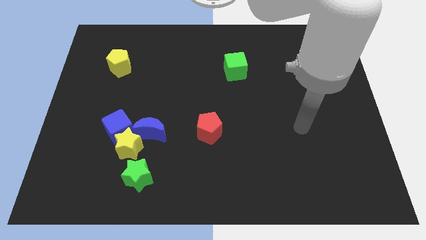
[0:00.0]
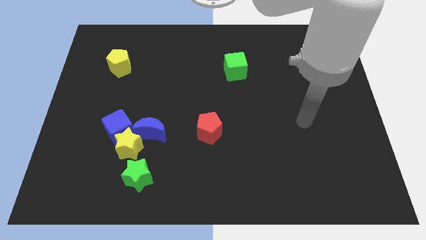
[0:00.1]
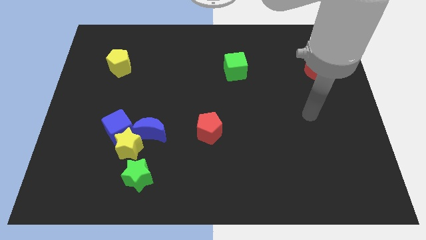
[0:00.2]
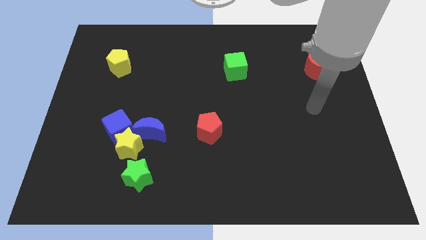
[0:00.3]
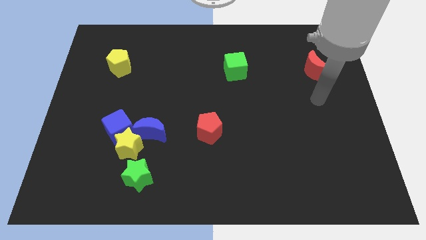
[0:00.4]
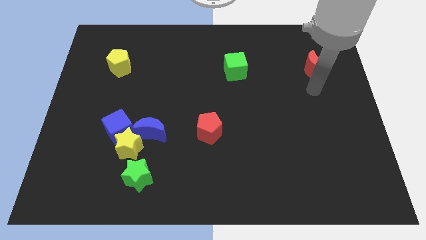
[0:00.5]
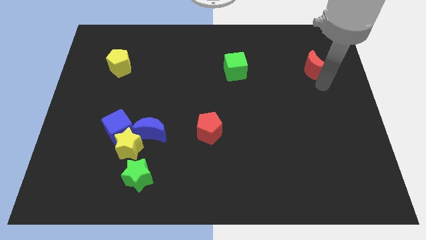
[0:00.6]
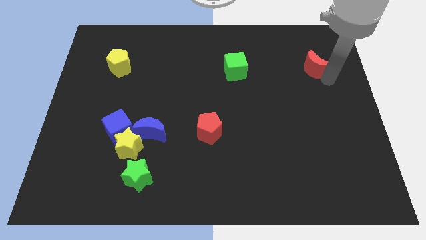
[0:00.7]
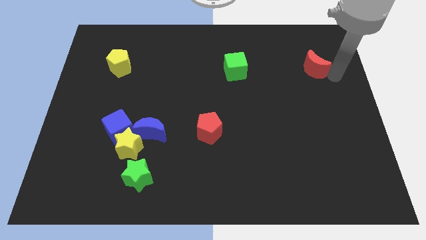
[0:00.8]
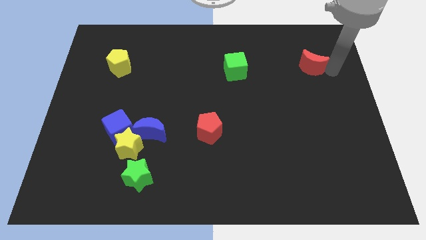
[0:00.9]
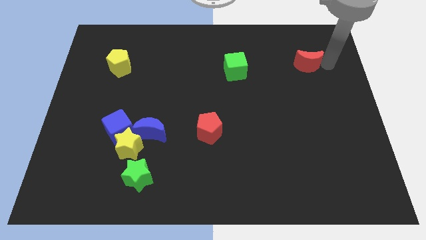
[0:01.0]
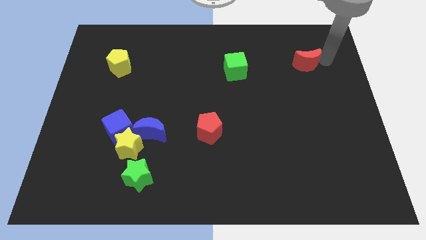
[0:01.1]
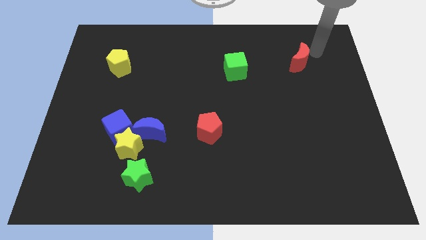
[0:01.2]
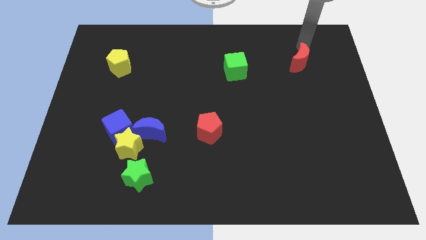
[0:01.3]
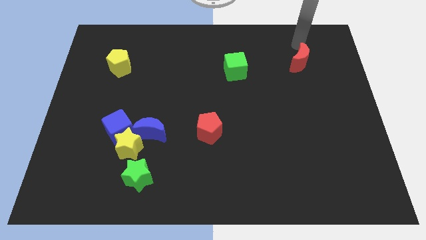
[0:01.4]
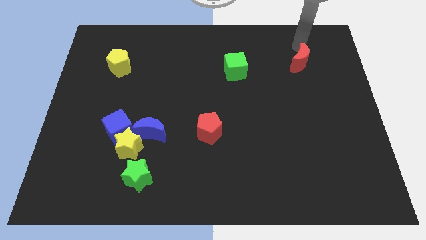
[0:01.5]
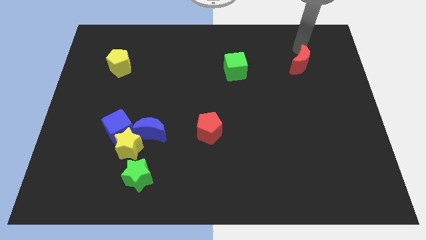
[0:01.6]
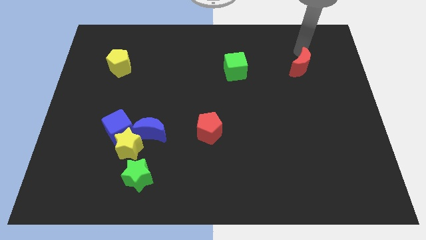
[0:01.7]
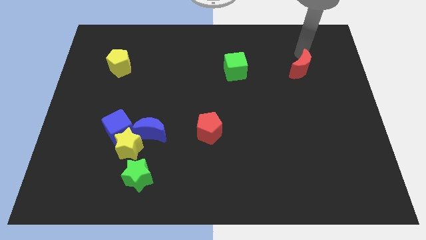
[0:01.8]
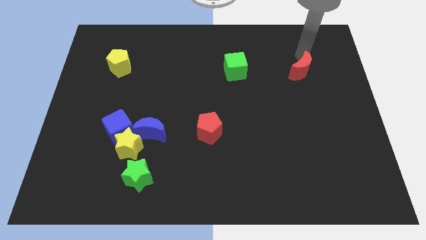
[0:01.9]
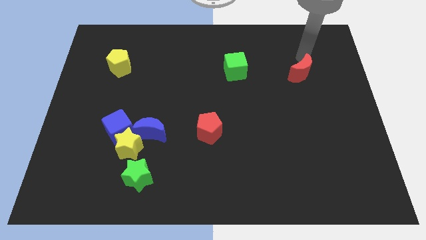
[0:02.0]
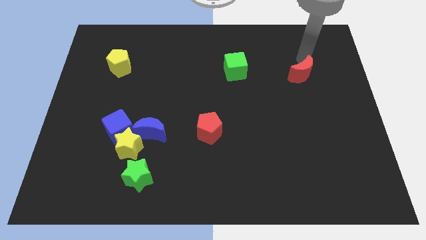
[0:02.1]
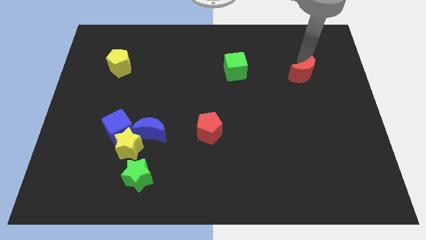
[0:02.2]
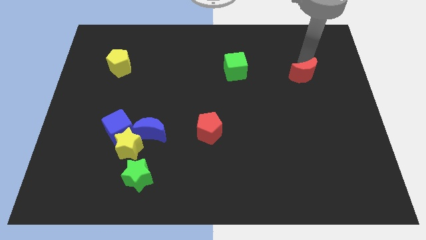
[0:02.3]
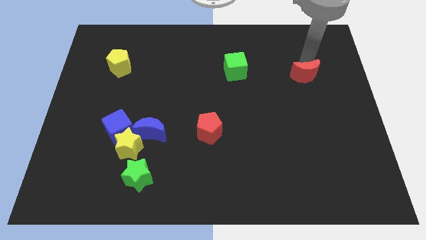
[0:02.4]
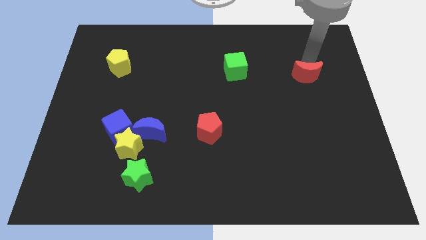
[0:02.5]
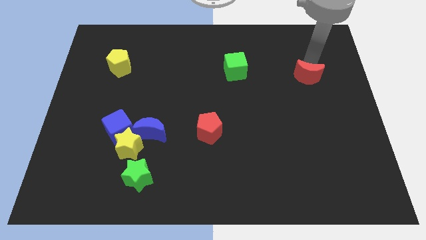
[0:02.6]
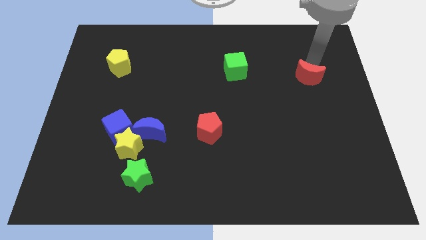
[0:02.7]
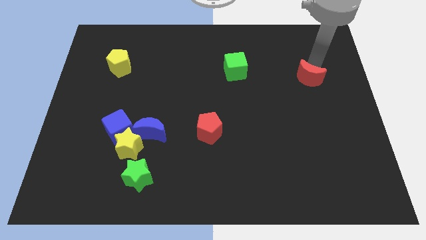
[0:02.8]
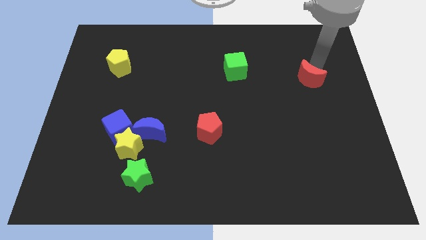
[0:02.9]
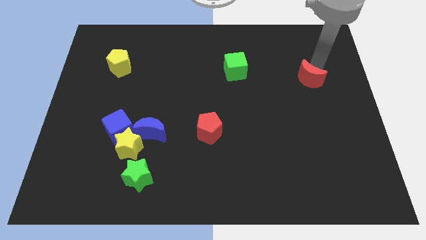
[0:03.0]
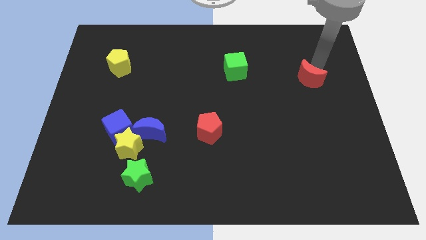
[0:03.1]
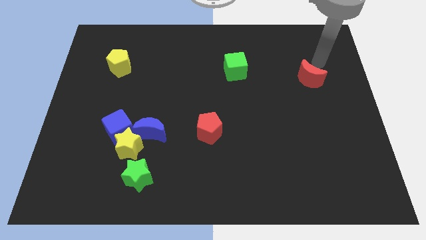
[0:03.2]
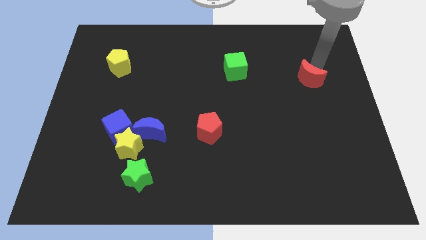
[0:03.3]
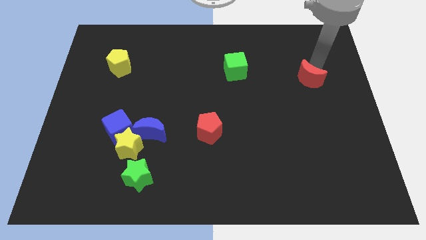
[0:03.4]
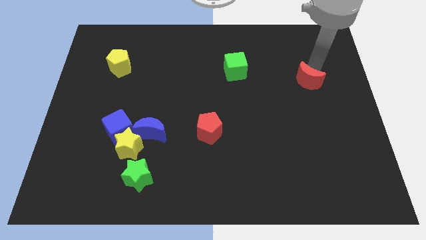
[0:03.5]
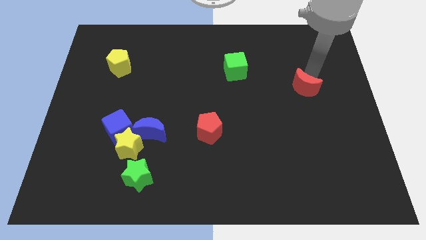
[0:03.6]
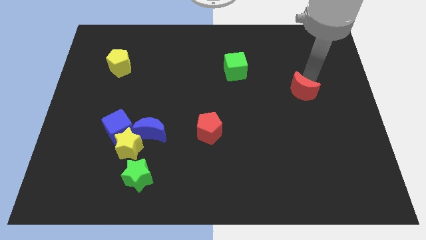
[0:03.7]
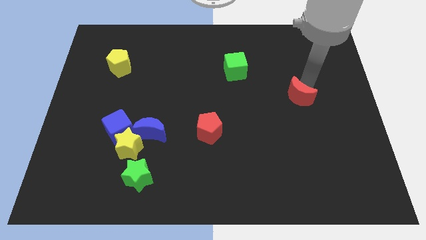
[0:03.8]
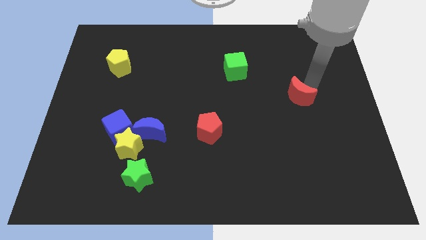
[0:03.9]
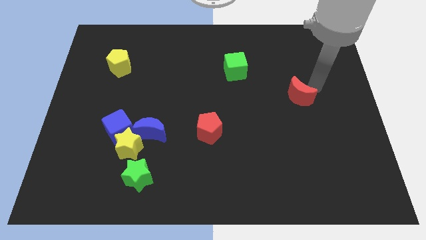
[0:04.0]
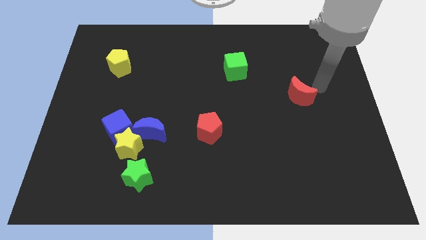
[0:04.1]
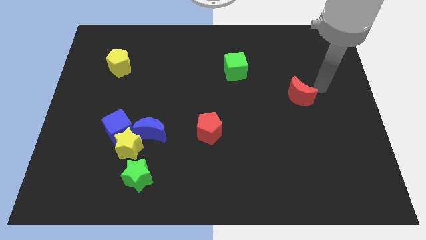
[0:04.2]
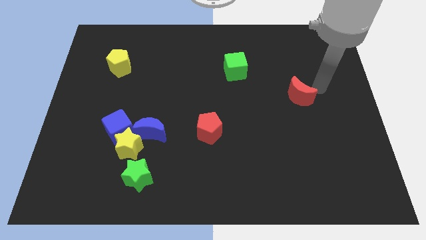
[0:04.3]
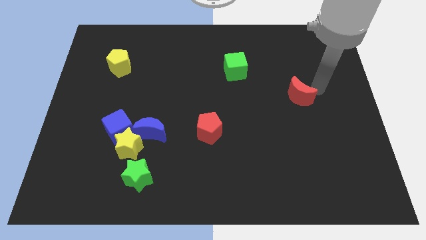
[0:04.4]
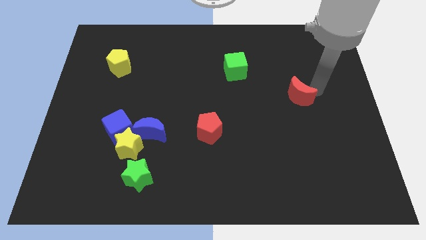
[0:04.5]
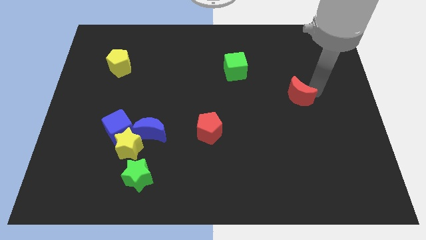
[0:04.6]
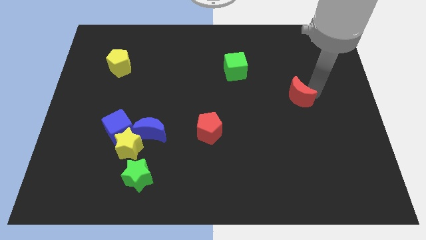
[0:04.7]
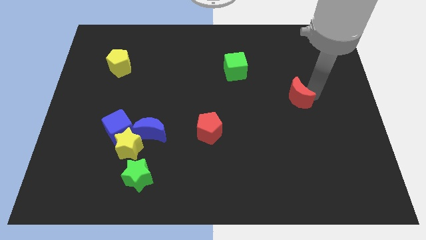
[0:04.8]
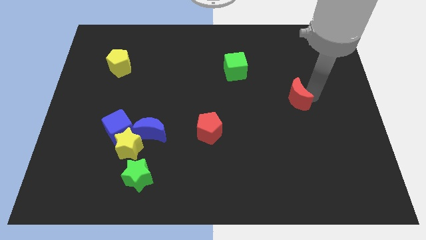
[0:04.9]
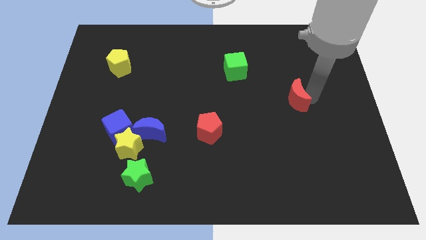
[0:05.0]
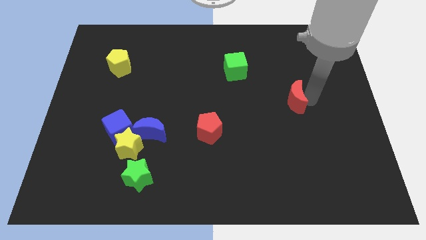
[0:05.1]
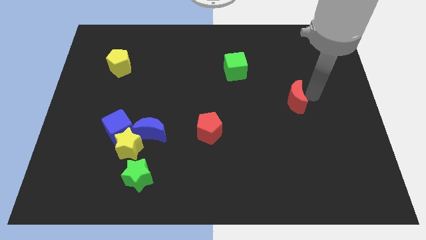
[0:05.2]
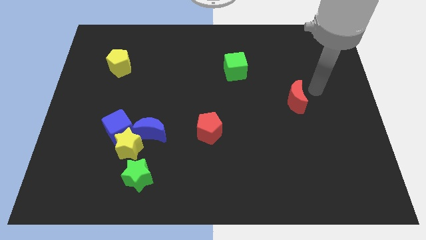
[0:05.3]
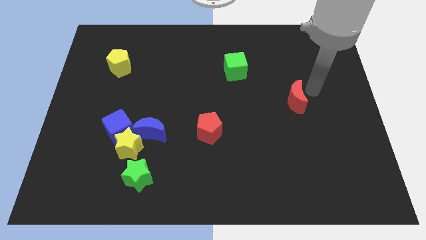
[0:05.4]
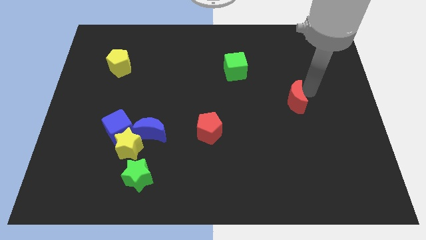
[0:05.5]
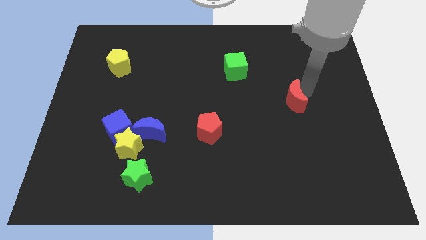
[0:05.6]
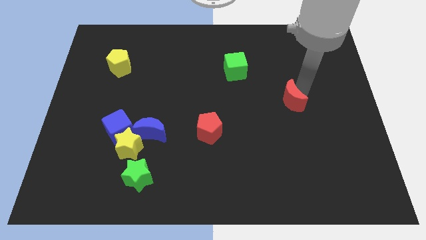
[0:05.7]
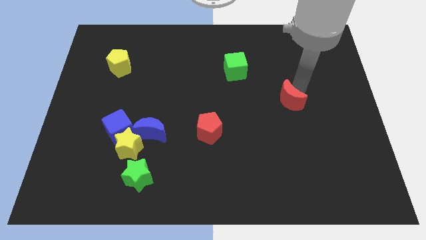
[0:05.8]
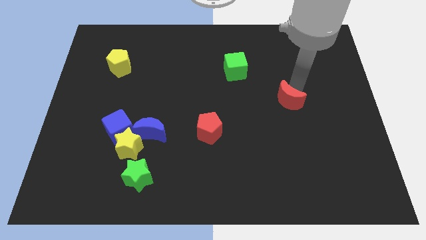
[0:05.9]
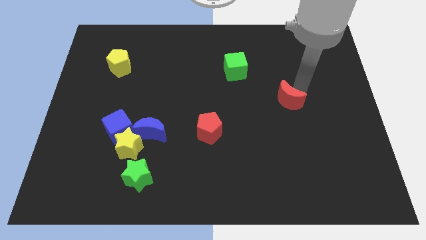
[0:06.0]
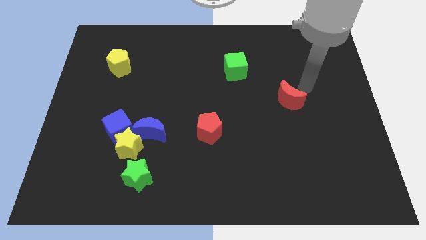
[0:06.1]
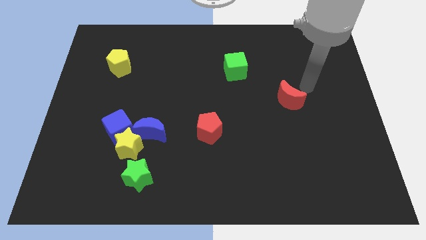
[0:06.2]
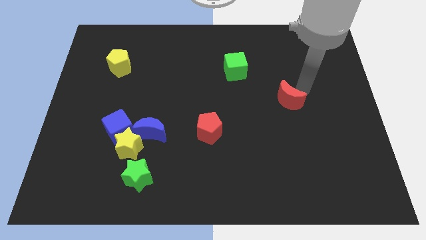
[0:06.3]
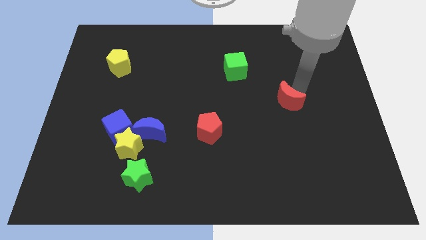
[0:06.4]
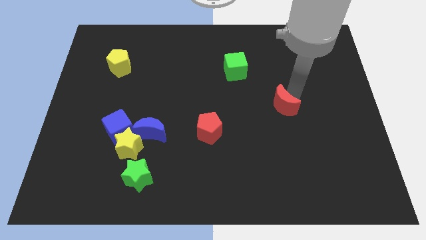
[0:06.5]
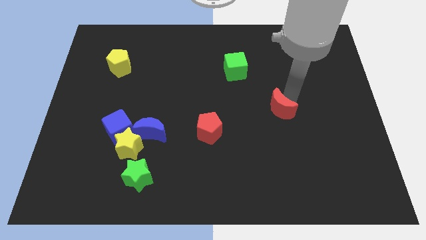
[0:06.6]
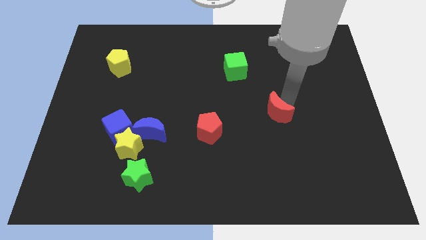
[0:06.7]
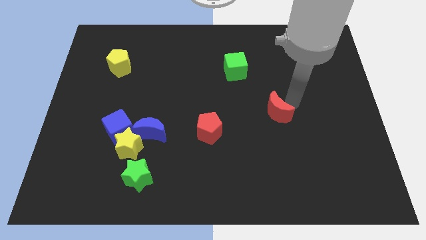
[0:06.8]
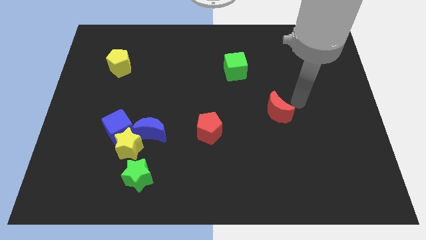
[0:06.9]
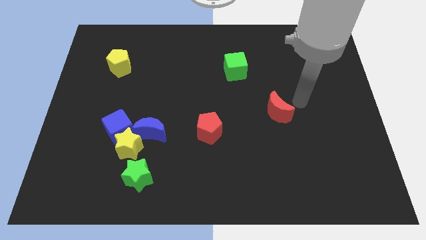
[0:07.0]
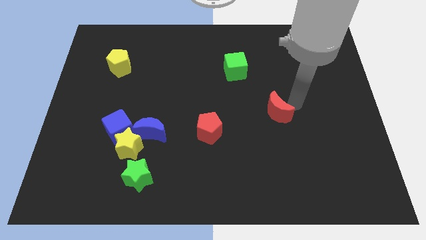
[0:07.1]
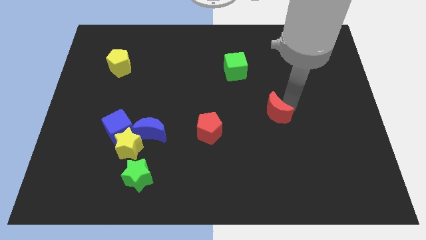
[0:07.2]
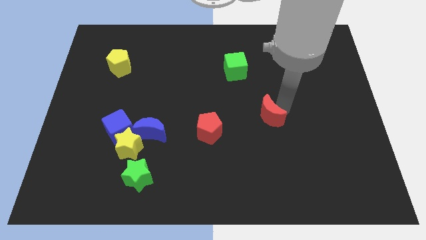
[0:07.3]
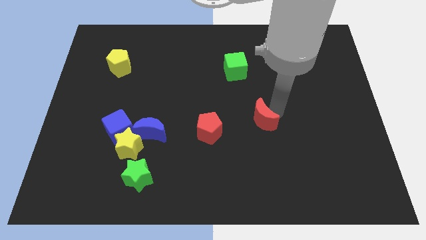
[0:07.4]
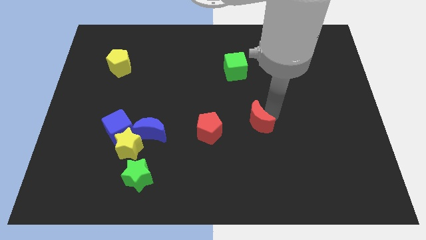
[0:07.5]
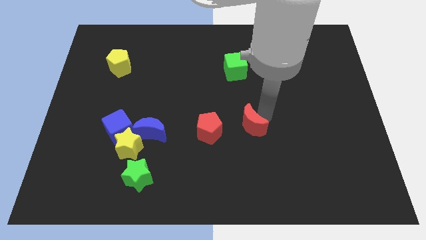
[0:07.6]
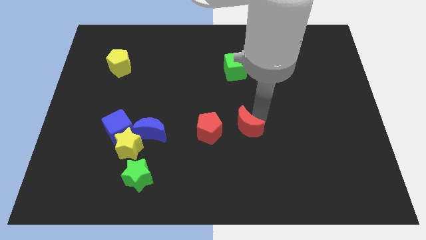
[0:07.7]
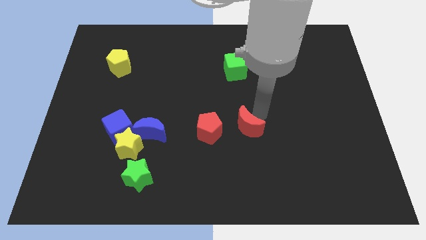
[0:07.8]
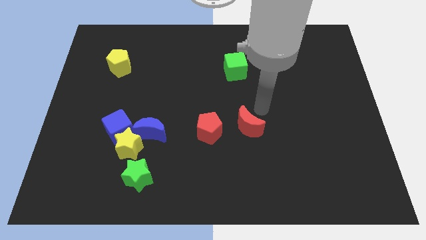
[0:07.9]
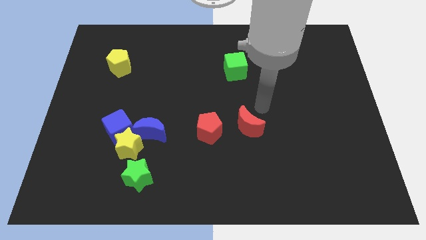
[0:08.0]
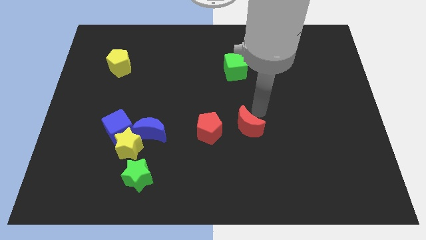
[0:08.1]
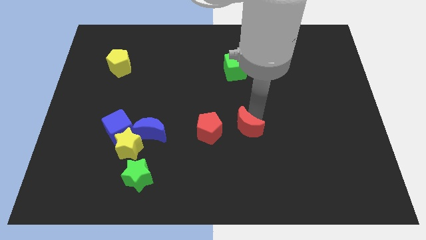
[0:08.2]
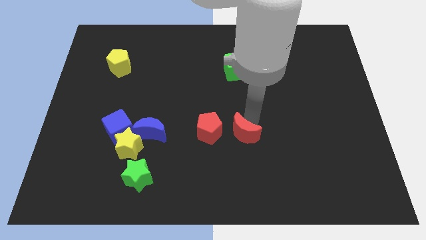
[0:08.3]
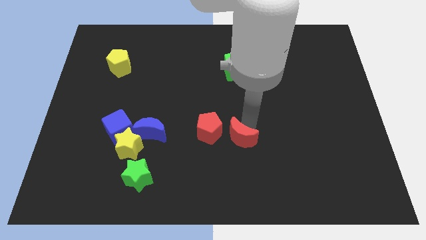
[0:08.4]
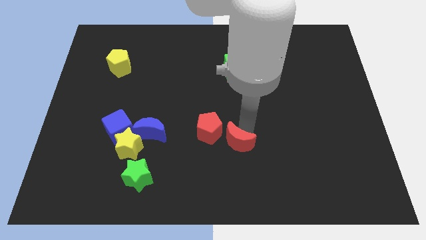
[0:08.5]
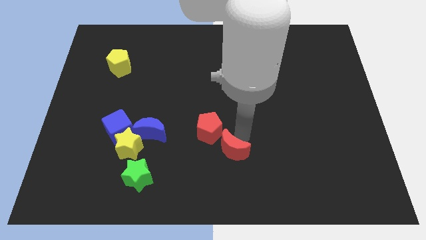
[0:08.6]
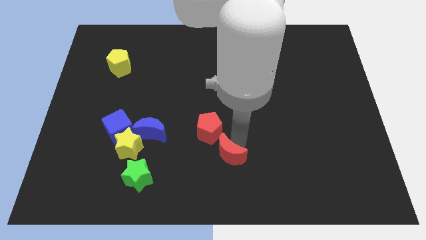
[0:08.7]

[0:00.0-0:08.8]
put the red moon below the red pentagon
